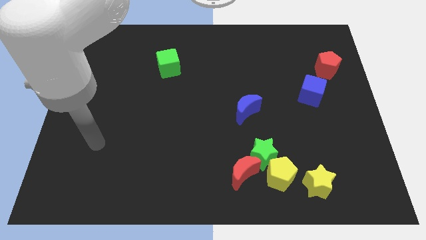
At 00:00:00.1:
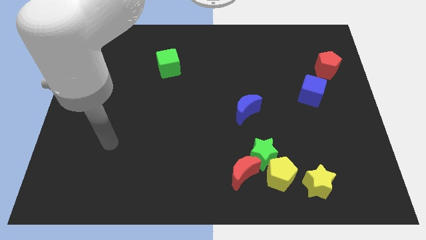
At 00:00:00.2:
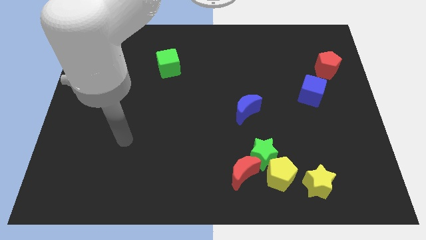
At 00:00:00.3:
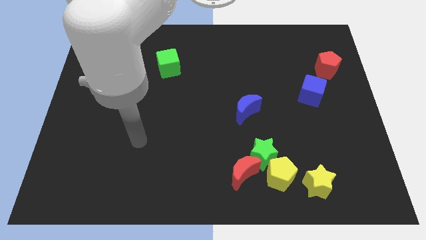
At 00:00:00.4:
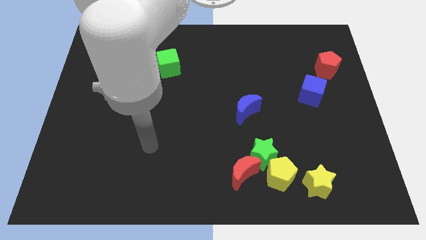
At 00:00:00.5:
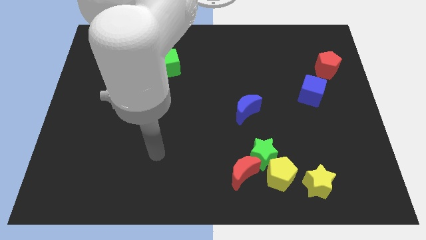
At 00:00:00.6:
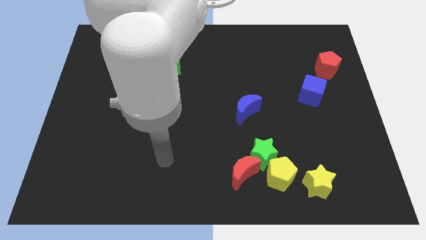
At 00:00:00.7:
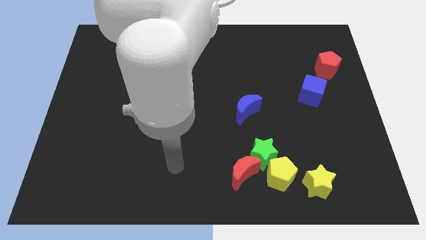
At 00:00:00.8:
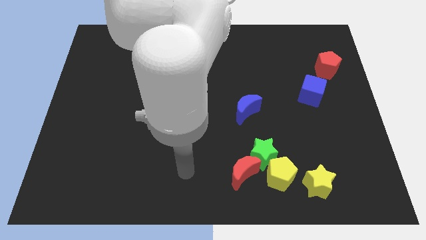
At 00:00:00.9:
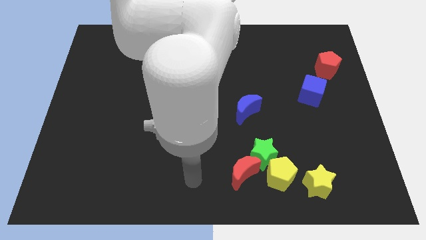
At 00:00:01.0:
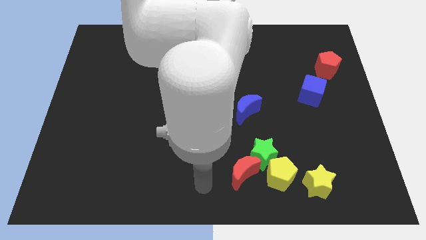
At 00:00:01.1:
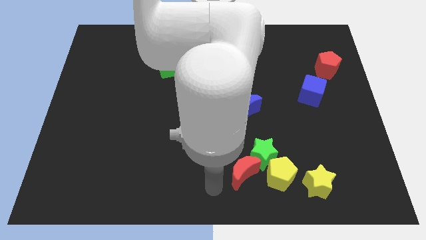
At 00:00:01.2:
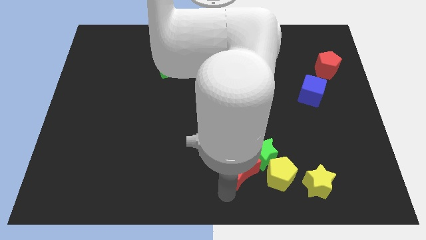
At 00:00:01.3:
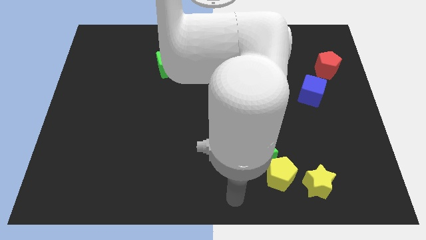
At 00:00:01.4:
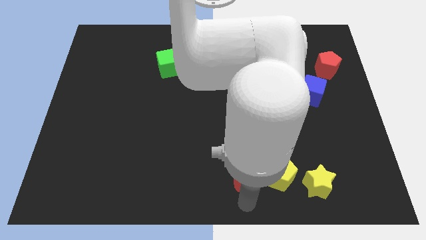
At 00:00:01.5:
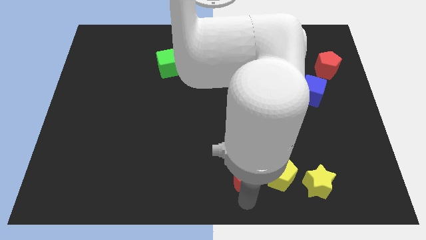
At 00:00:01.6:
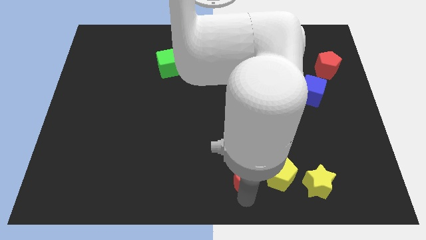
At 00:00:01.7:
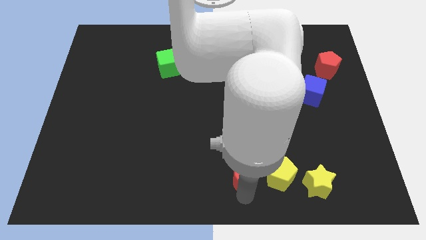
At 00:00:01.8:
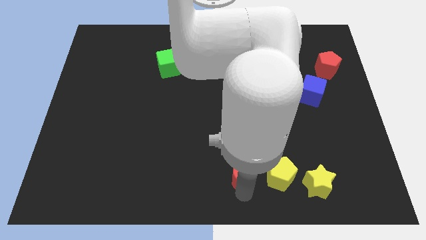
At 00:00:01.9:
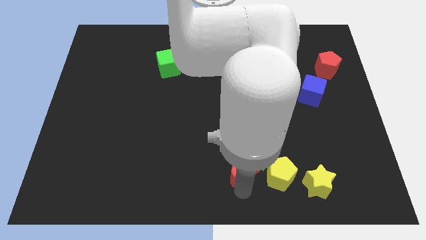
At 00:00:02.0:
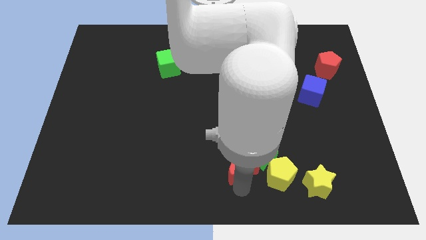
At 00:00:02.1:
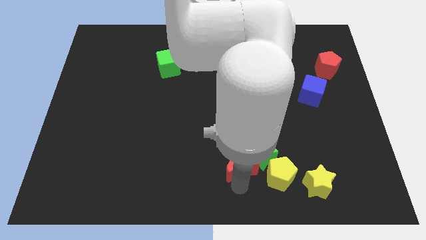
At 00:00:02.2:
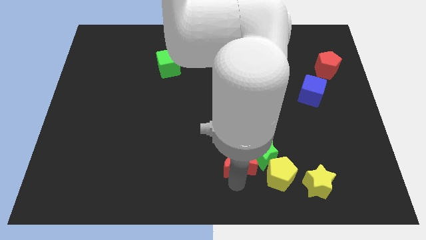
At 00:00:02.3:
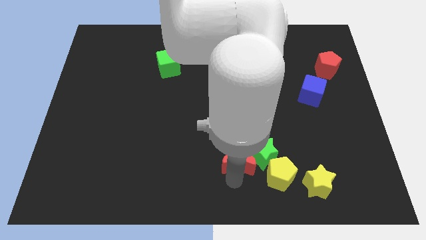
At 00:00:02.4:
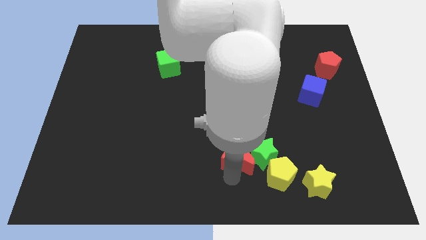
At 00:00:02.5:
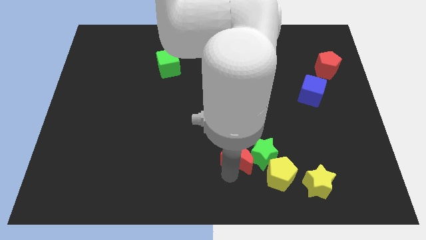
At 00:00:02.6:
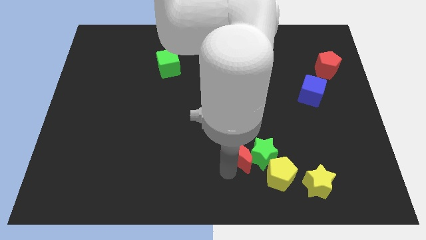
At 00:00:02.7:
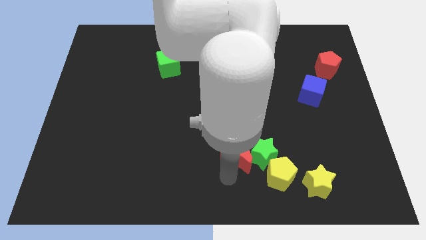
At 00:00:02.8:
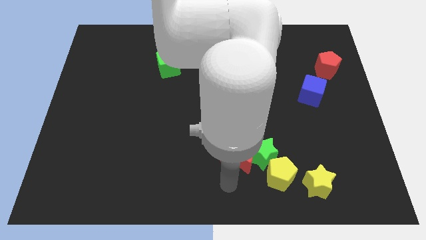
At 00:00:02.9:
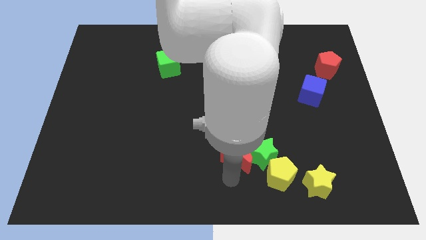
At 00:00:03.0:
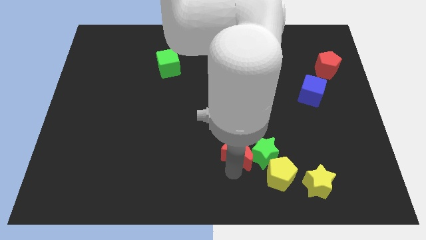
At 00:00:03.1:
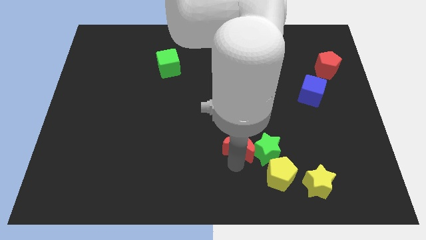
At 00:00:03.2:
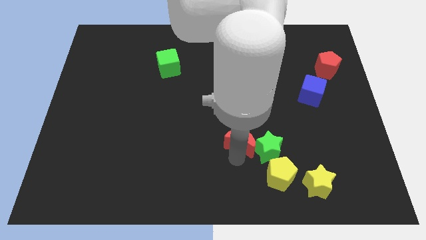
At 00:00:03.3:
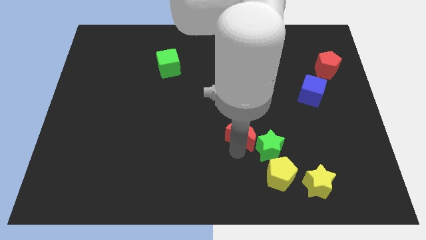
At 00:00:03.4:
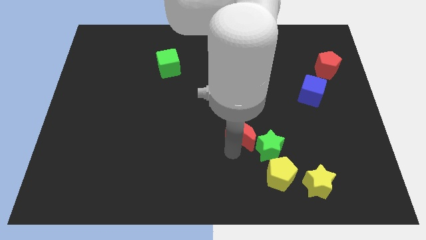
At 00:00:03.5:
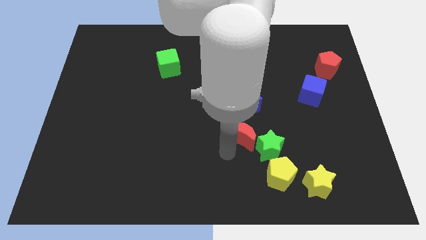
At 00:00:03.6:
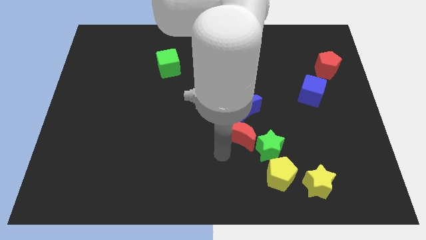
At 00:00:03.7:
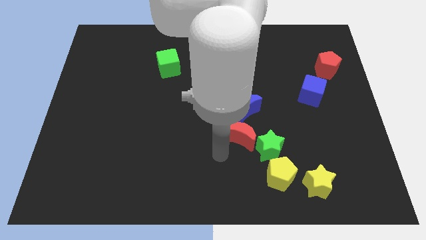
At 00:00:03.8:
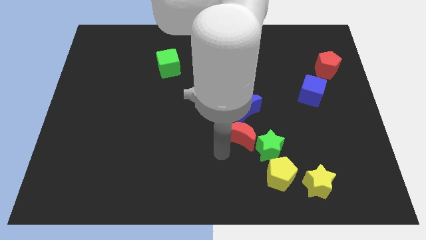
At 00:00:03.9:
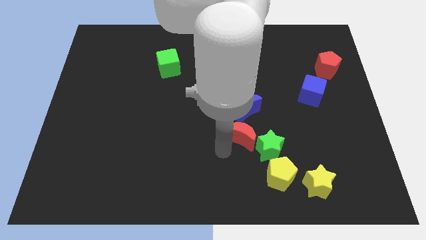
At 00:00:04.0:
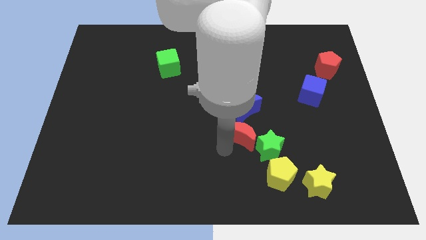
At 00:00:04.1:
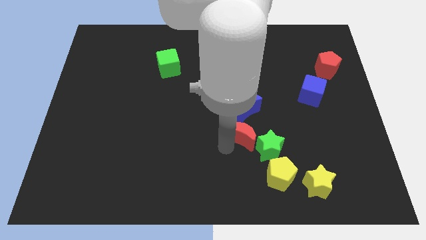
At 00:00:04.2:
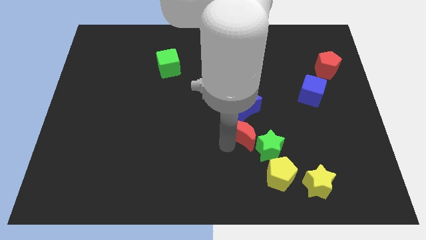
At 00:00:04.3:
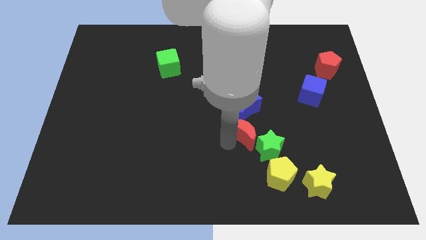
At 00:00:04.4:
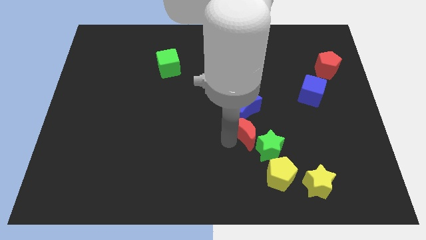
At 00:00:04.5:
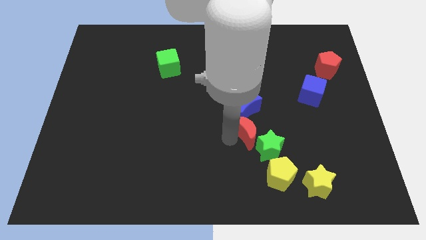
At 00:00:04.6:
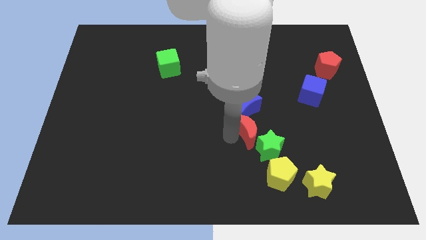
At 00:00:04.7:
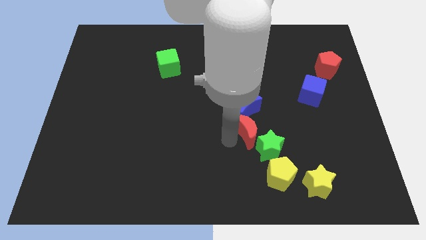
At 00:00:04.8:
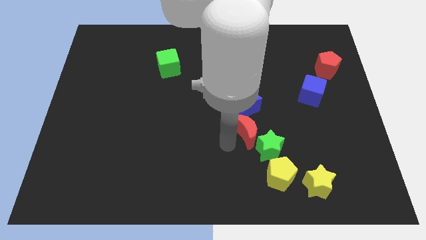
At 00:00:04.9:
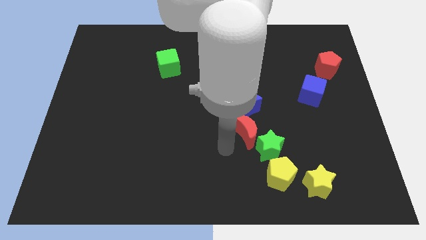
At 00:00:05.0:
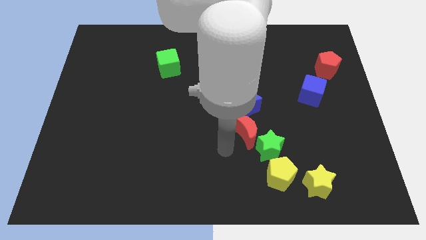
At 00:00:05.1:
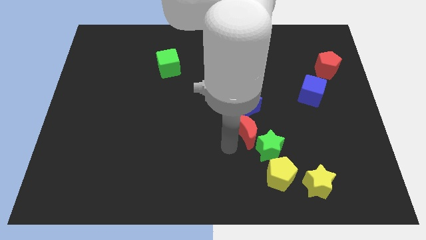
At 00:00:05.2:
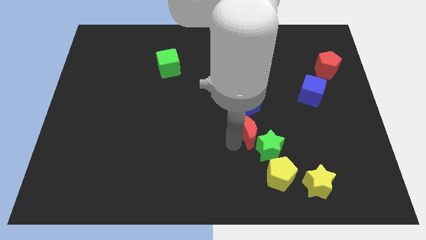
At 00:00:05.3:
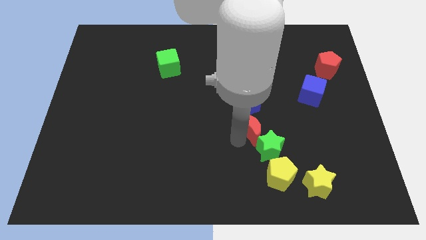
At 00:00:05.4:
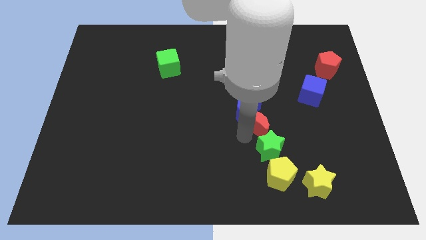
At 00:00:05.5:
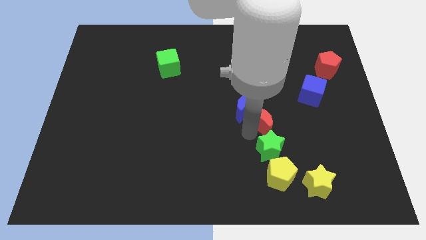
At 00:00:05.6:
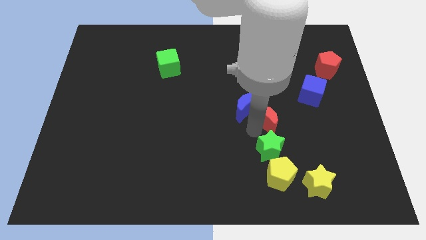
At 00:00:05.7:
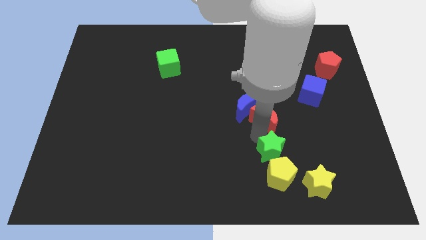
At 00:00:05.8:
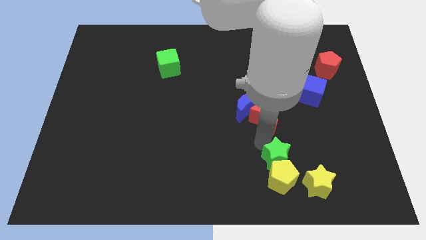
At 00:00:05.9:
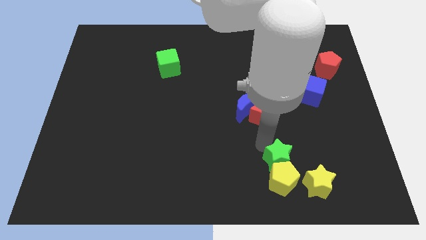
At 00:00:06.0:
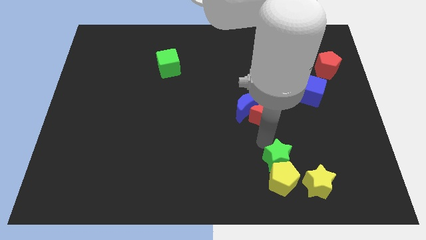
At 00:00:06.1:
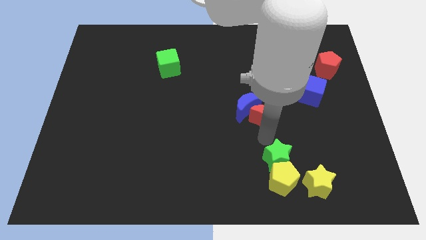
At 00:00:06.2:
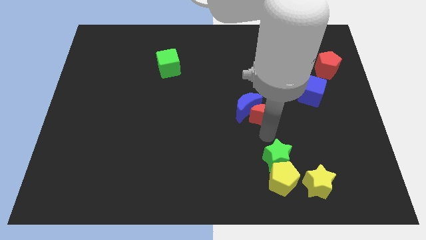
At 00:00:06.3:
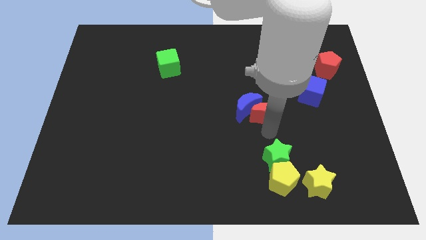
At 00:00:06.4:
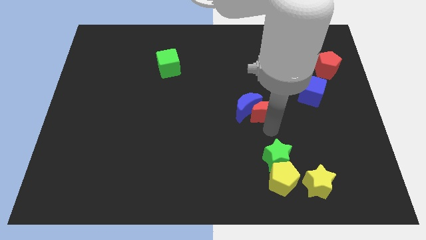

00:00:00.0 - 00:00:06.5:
put the red moon diagonally up and to the right of the blue moon
